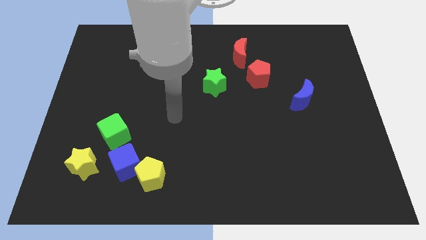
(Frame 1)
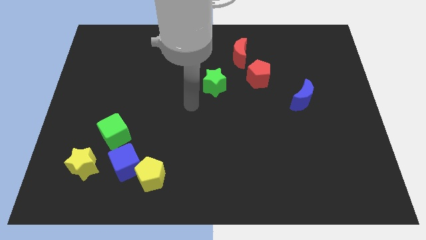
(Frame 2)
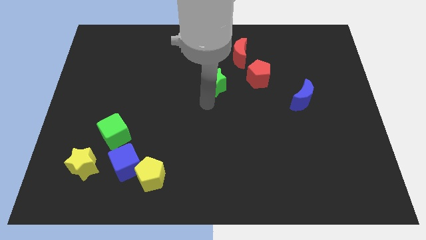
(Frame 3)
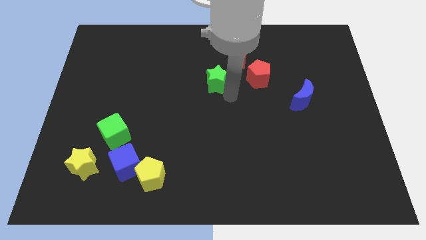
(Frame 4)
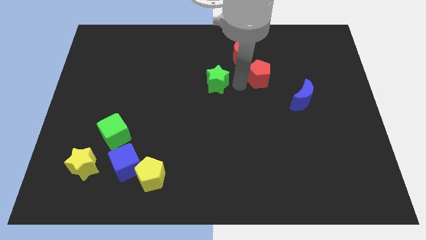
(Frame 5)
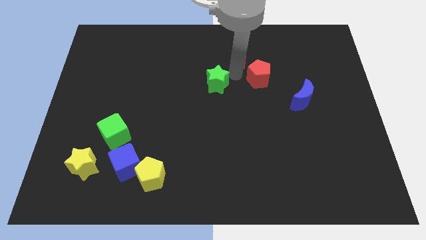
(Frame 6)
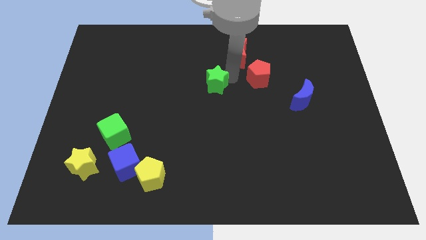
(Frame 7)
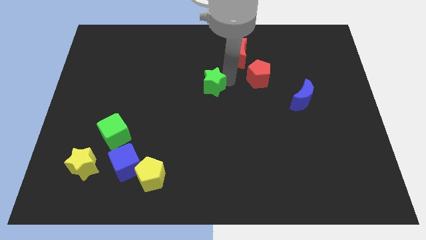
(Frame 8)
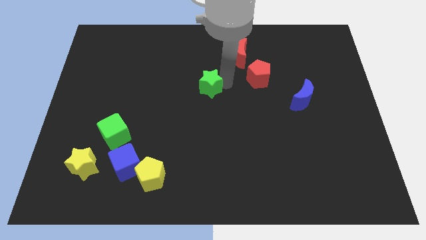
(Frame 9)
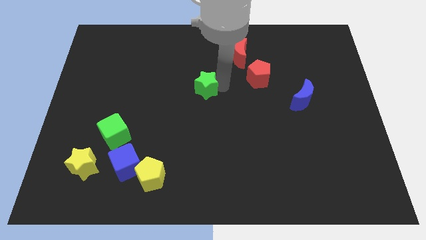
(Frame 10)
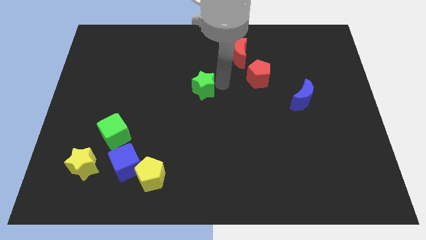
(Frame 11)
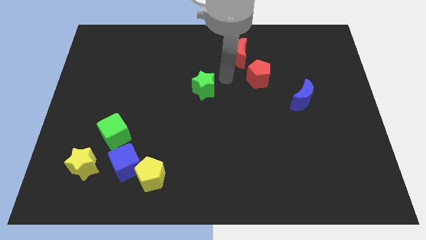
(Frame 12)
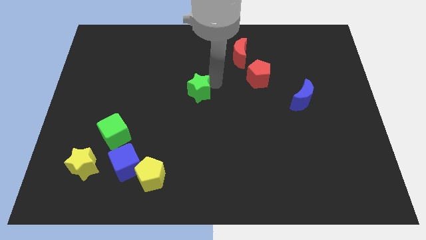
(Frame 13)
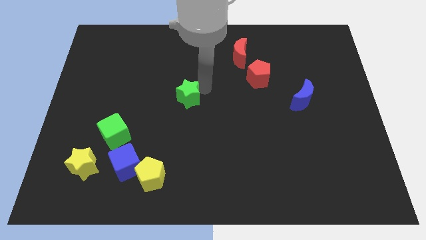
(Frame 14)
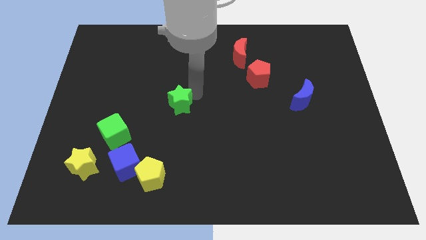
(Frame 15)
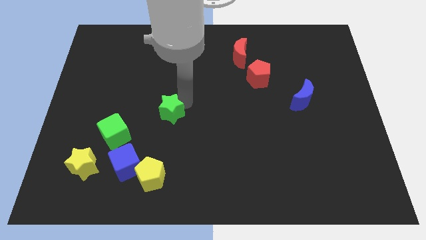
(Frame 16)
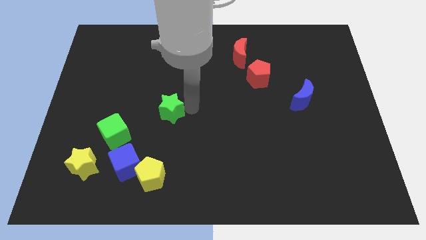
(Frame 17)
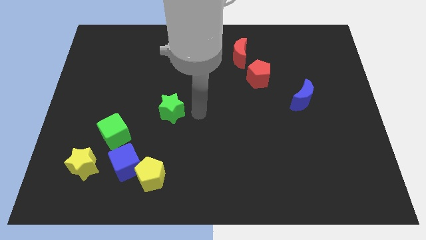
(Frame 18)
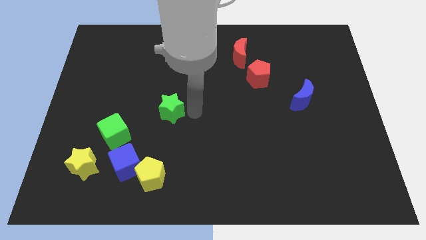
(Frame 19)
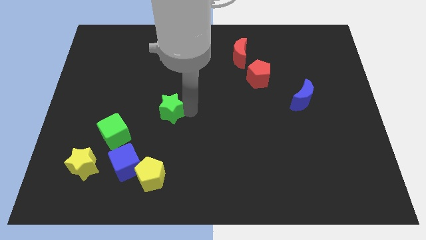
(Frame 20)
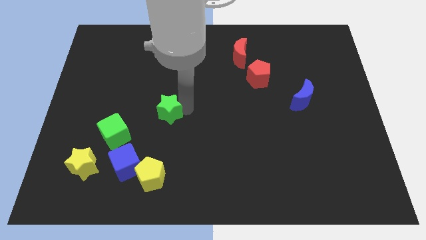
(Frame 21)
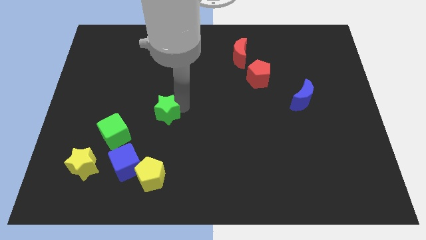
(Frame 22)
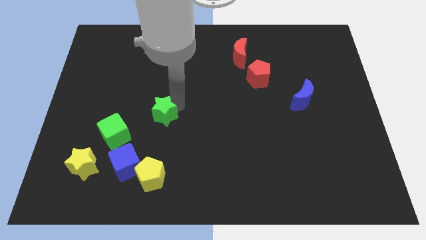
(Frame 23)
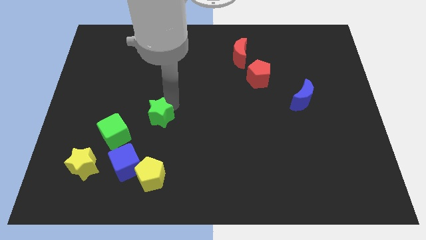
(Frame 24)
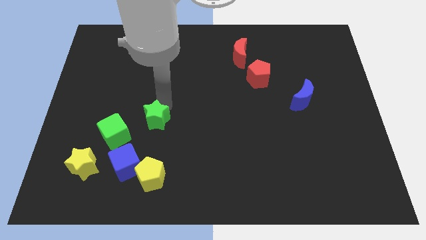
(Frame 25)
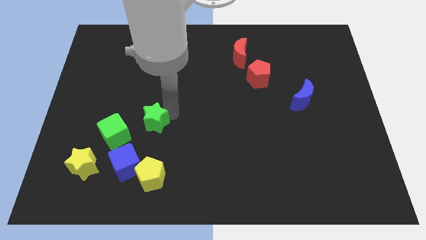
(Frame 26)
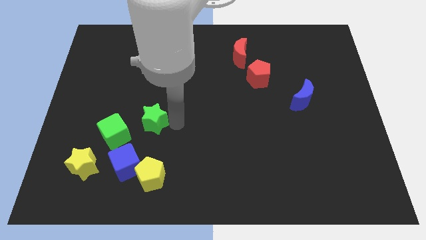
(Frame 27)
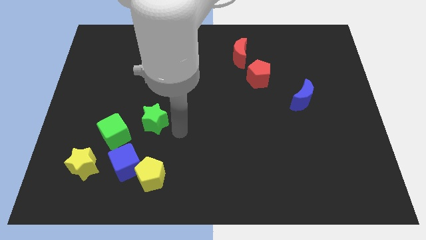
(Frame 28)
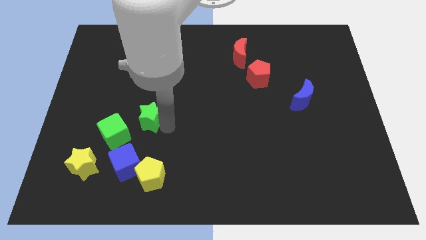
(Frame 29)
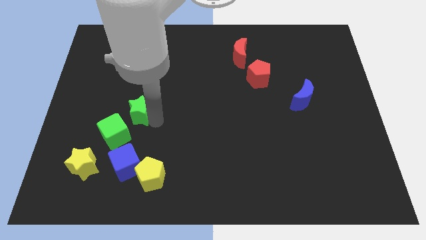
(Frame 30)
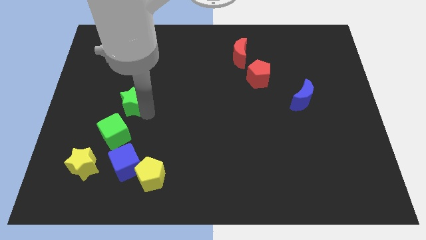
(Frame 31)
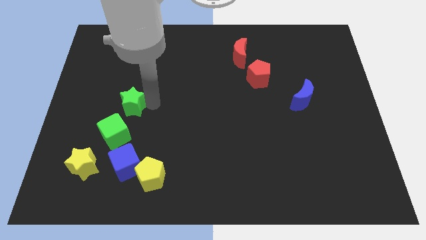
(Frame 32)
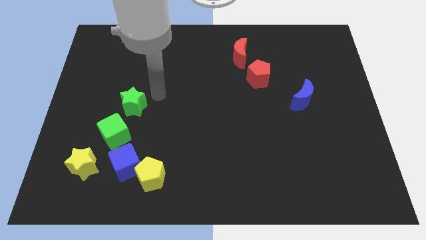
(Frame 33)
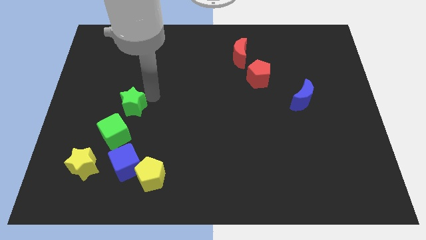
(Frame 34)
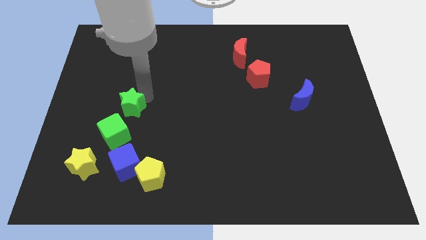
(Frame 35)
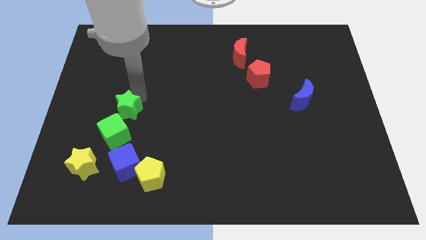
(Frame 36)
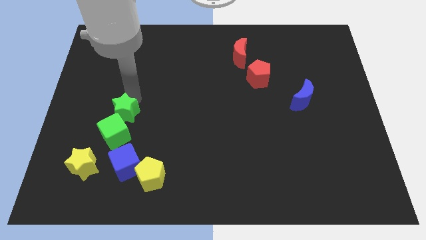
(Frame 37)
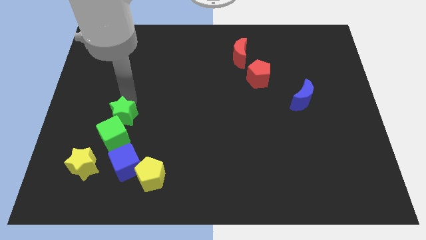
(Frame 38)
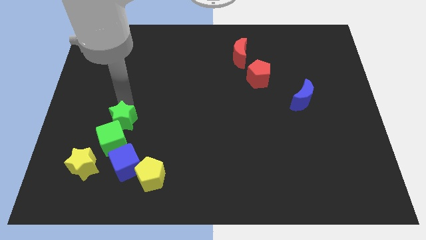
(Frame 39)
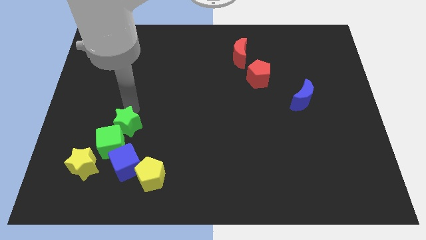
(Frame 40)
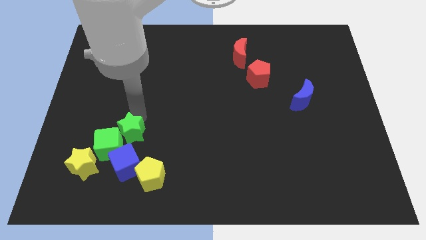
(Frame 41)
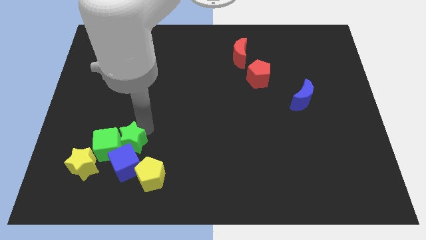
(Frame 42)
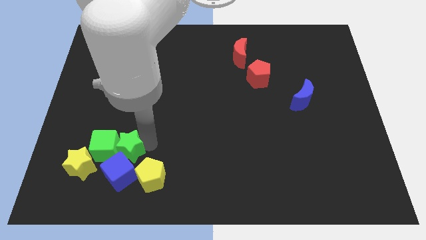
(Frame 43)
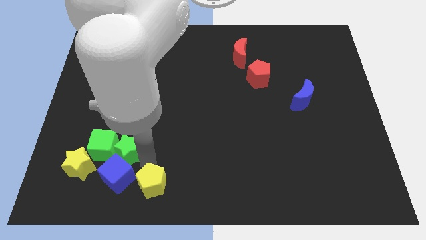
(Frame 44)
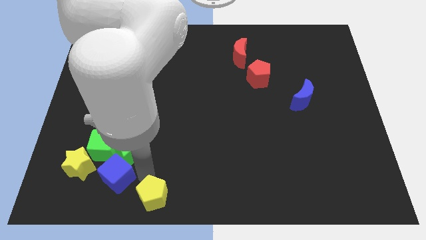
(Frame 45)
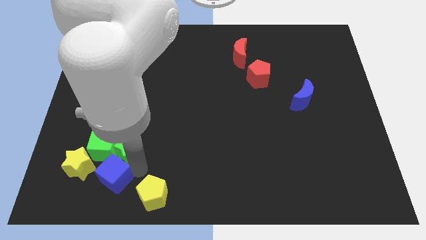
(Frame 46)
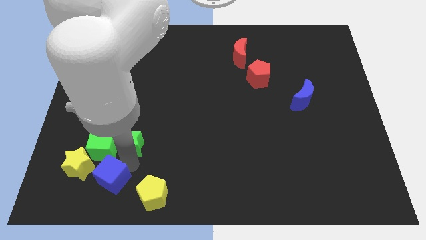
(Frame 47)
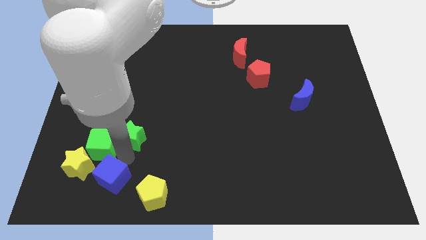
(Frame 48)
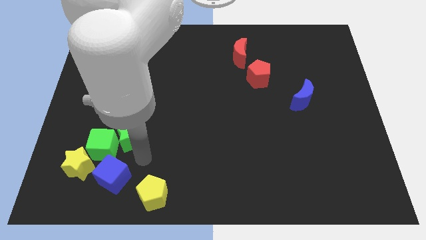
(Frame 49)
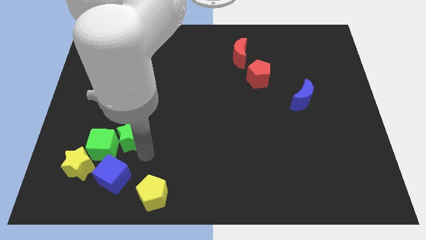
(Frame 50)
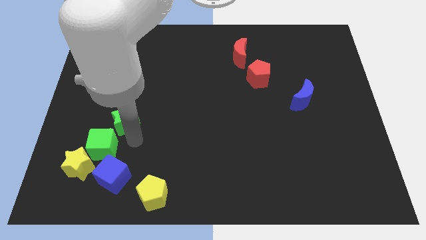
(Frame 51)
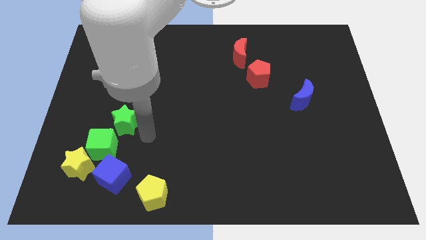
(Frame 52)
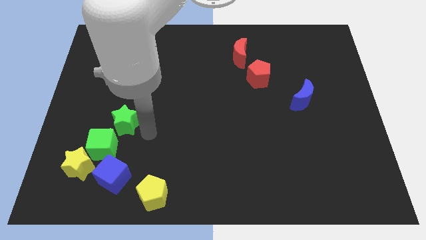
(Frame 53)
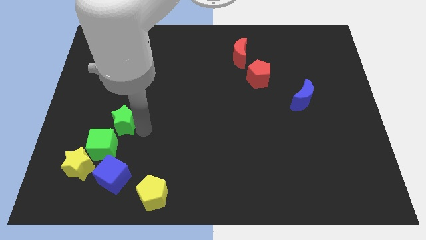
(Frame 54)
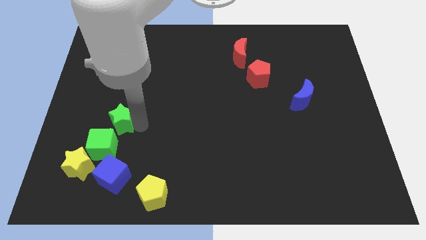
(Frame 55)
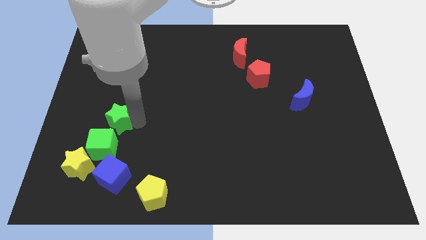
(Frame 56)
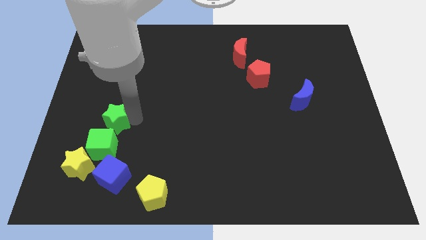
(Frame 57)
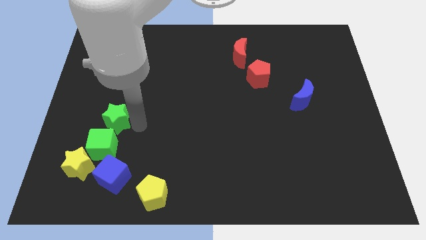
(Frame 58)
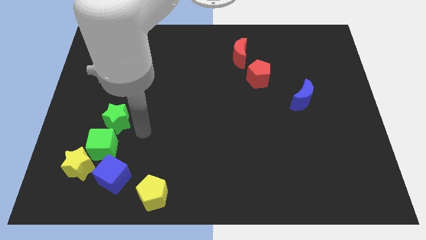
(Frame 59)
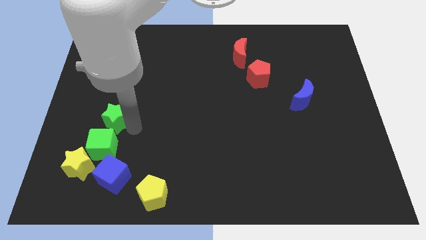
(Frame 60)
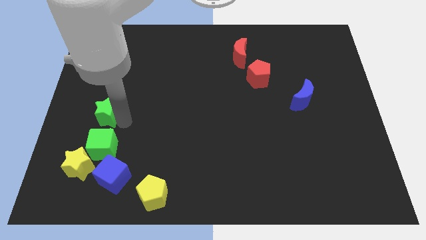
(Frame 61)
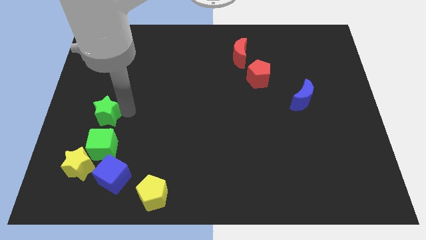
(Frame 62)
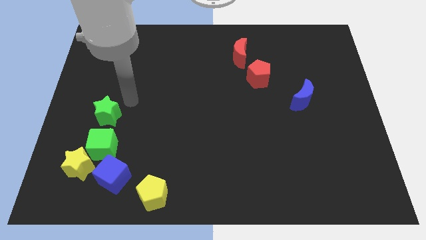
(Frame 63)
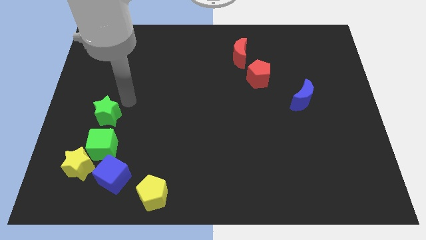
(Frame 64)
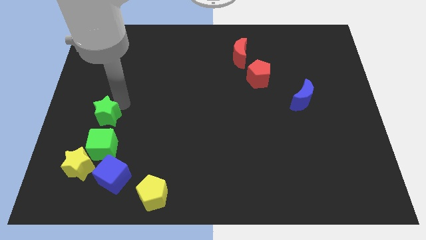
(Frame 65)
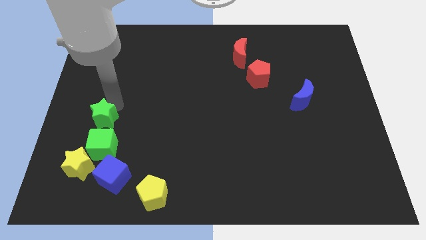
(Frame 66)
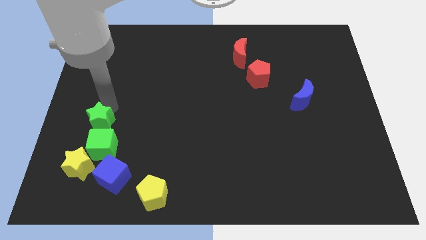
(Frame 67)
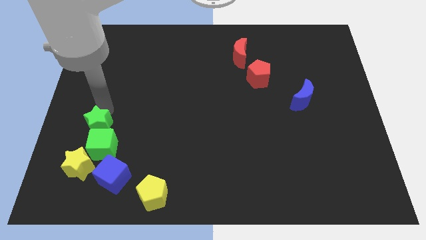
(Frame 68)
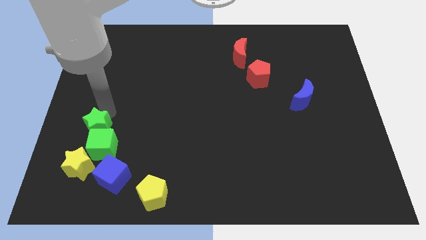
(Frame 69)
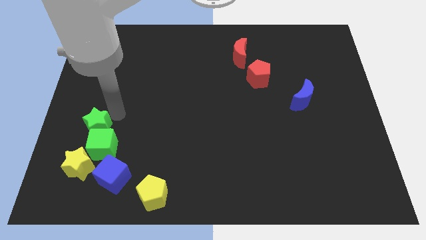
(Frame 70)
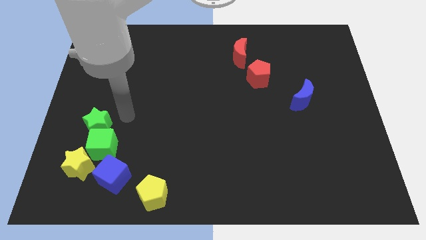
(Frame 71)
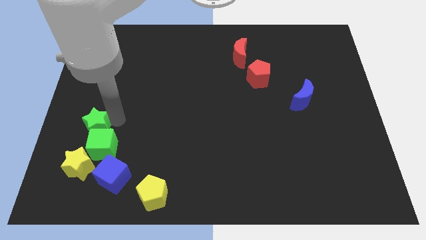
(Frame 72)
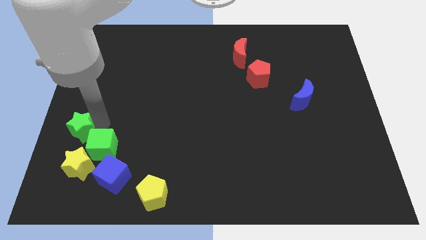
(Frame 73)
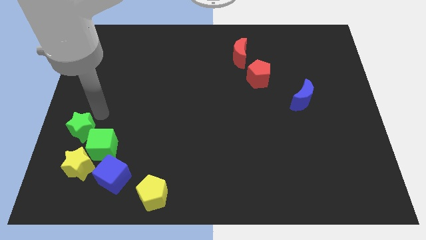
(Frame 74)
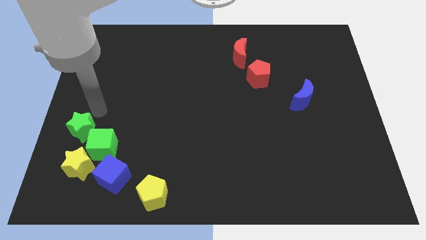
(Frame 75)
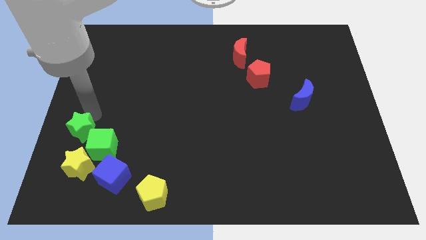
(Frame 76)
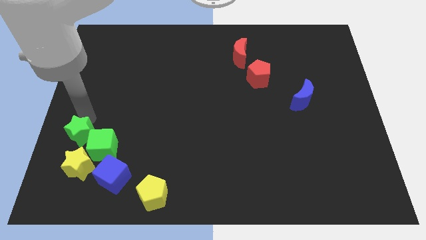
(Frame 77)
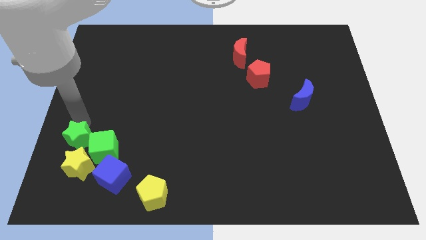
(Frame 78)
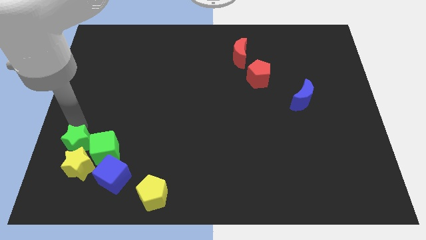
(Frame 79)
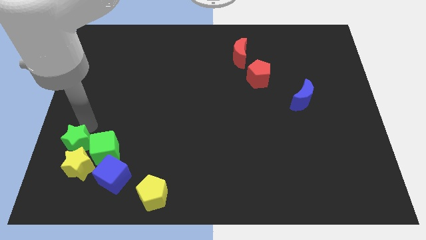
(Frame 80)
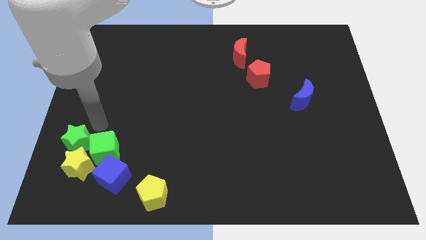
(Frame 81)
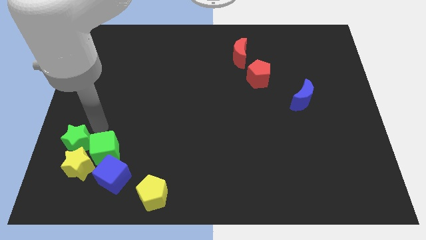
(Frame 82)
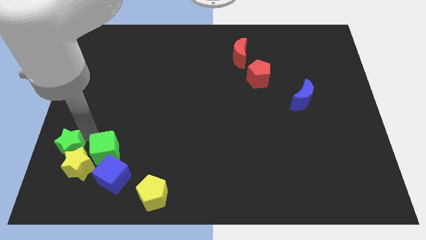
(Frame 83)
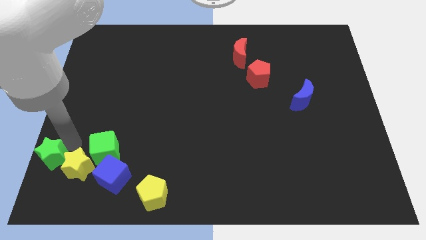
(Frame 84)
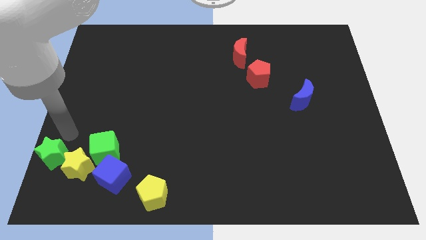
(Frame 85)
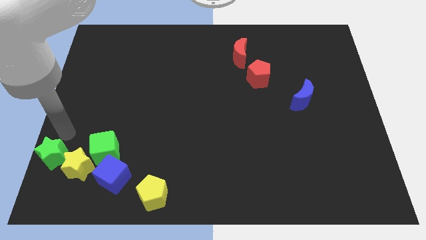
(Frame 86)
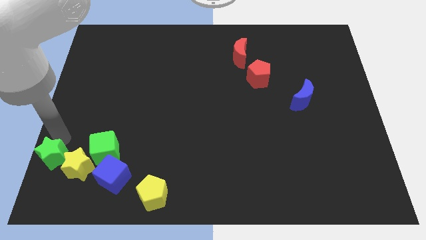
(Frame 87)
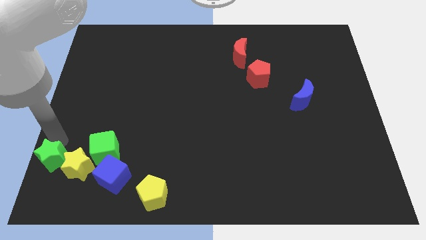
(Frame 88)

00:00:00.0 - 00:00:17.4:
push the green star to the bottom left corner
